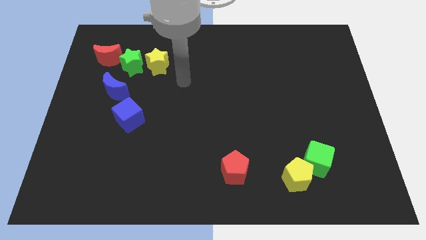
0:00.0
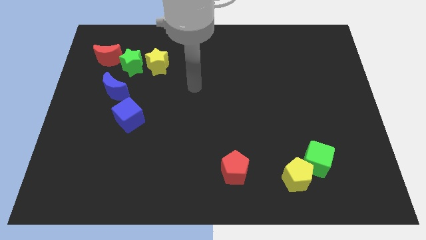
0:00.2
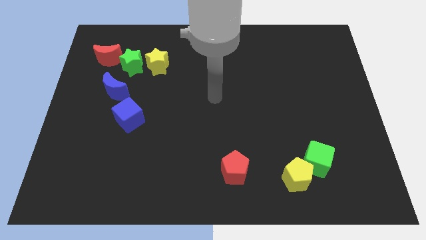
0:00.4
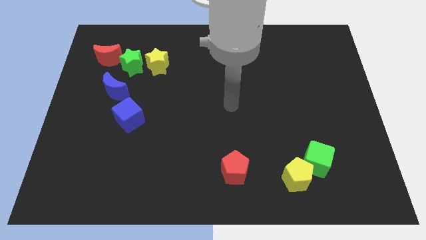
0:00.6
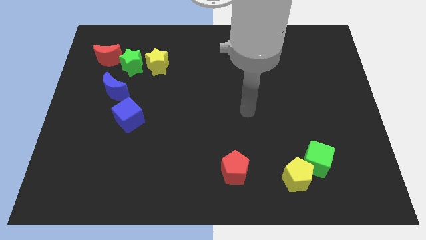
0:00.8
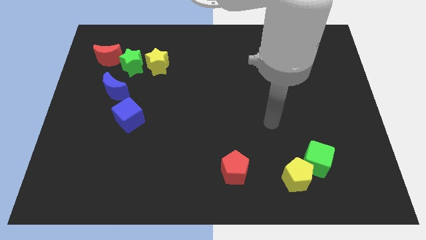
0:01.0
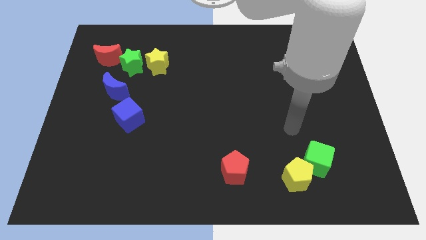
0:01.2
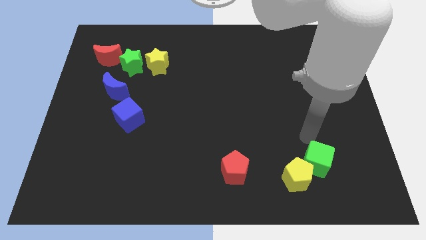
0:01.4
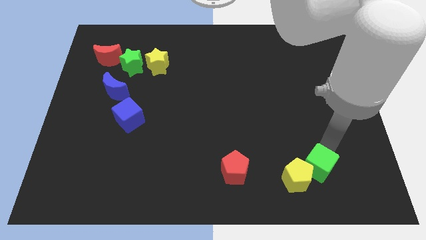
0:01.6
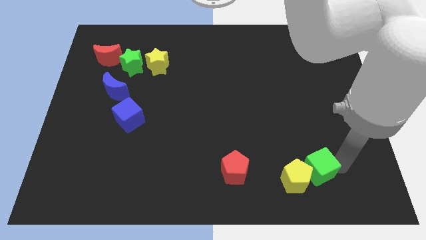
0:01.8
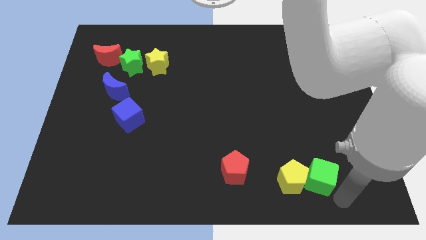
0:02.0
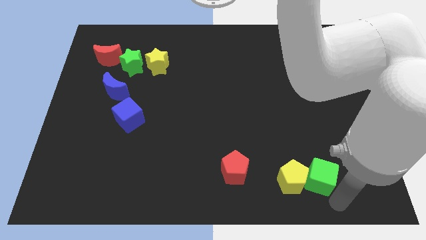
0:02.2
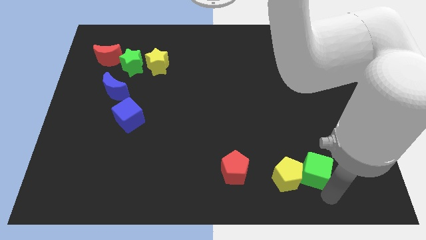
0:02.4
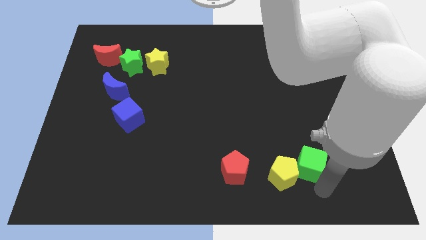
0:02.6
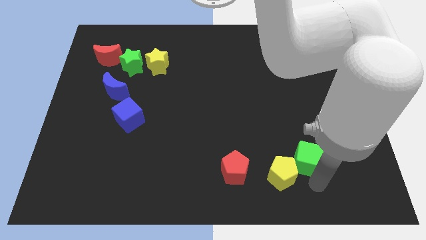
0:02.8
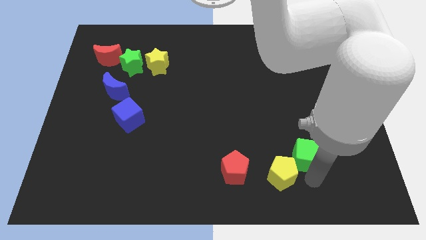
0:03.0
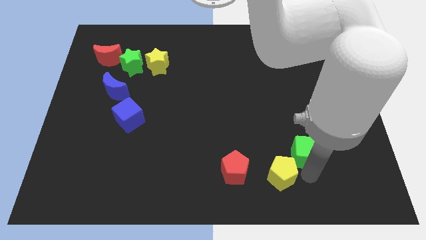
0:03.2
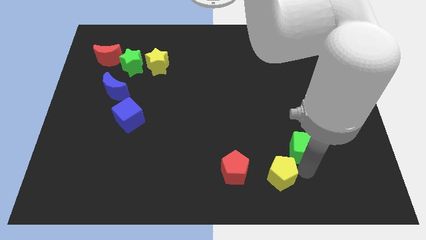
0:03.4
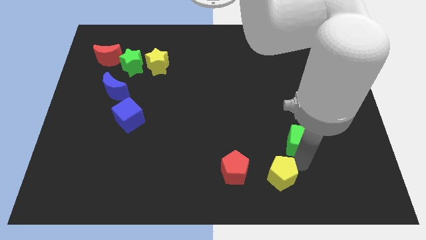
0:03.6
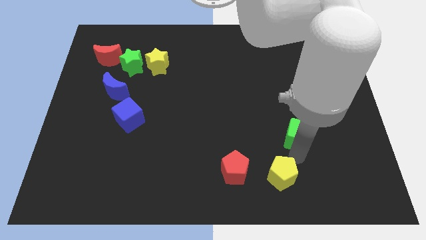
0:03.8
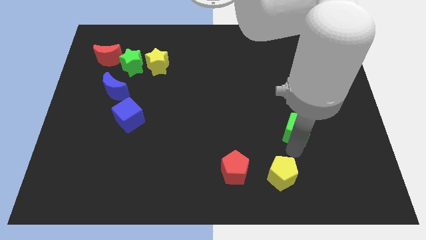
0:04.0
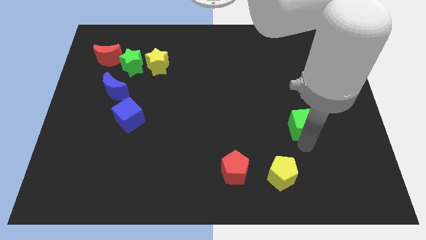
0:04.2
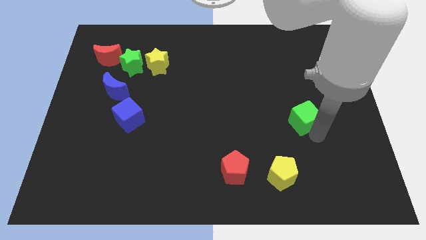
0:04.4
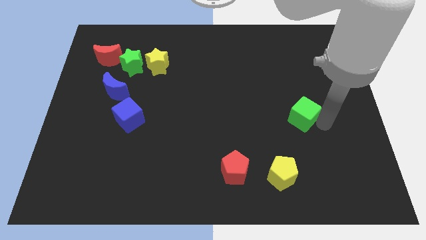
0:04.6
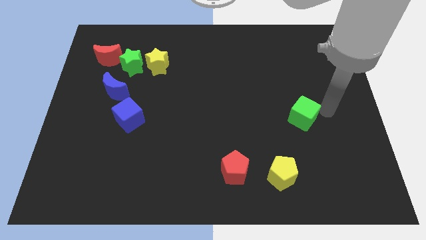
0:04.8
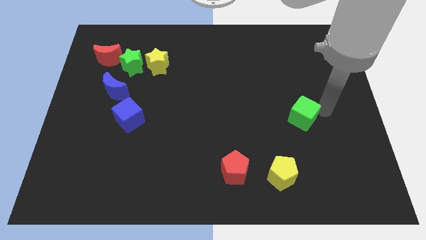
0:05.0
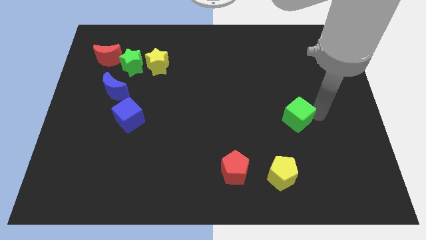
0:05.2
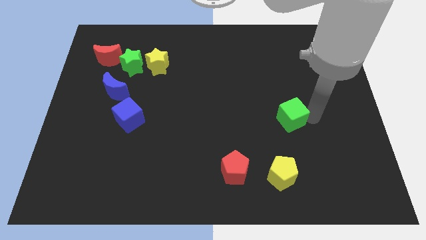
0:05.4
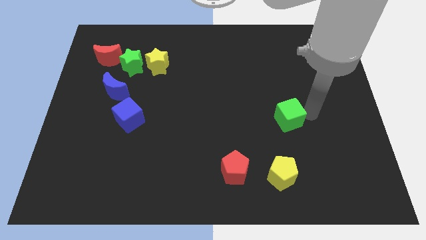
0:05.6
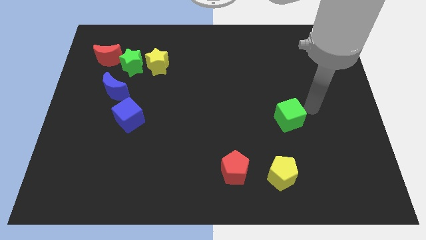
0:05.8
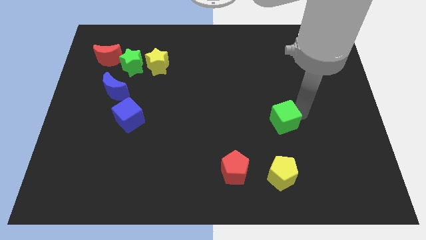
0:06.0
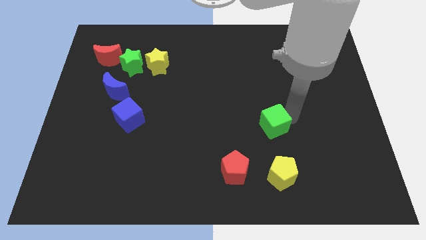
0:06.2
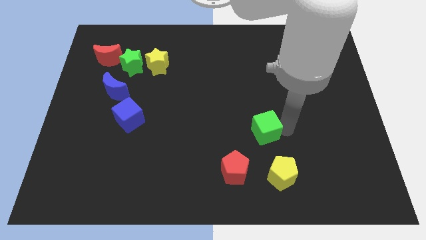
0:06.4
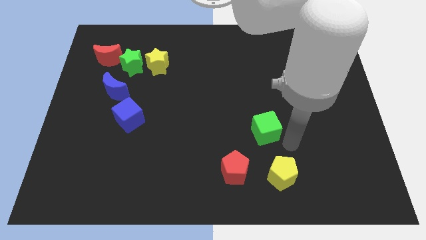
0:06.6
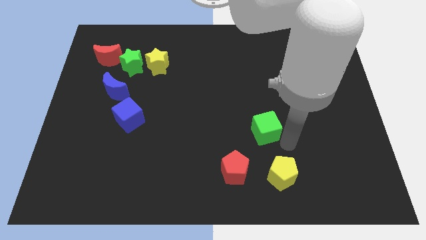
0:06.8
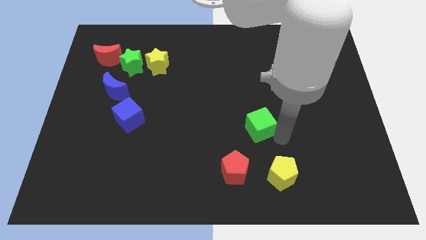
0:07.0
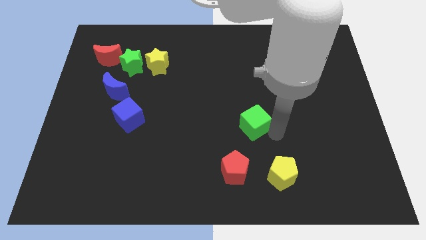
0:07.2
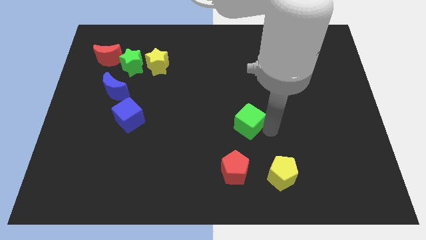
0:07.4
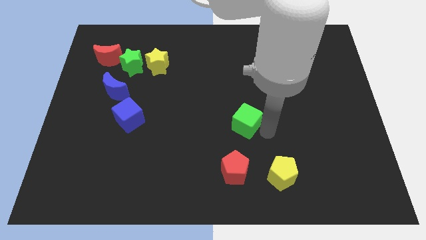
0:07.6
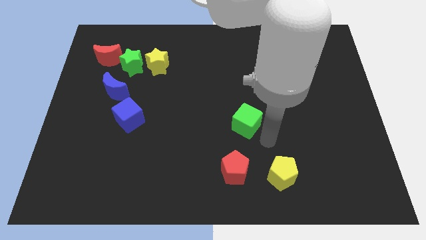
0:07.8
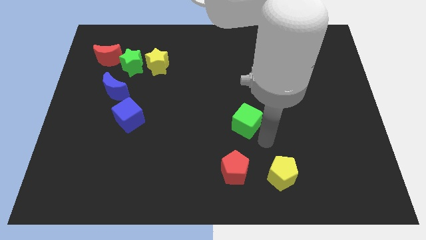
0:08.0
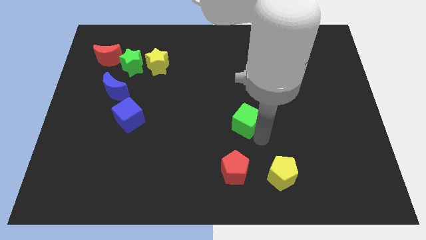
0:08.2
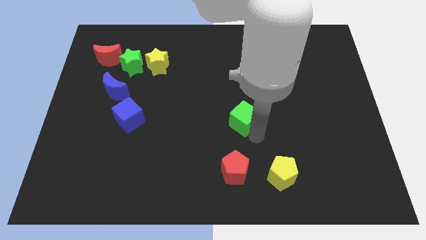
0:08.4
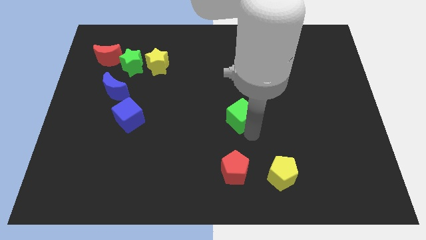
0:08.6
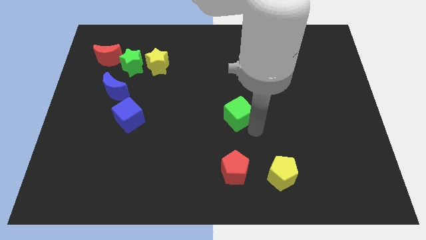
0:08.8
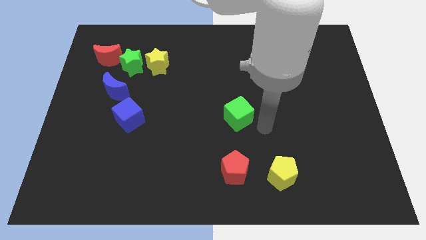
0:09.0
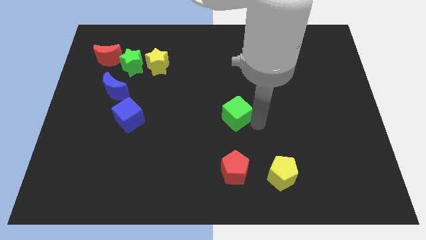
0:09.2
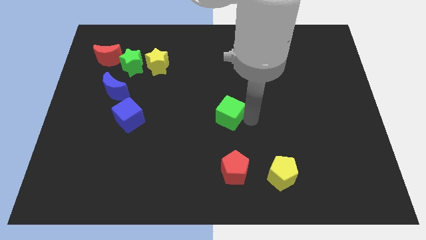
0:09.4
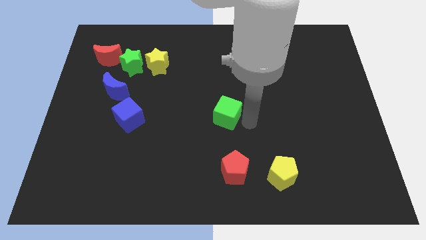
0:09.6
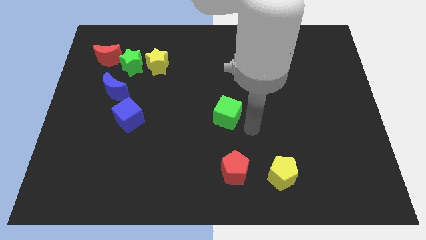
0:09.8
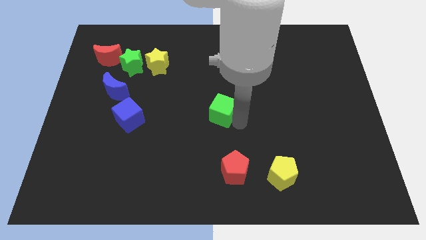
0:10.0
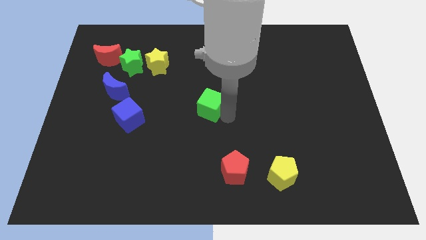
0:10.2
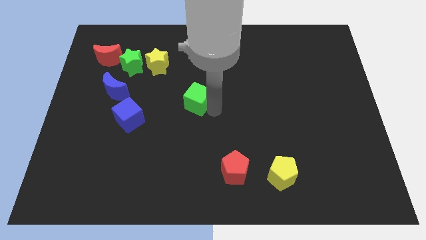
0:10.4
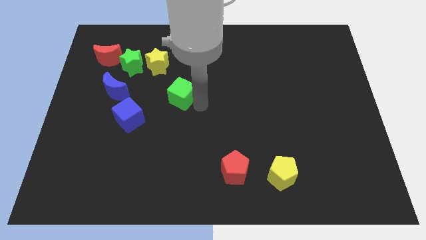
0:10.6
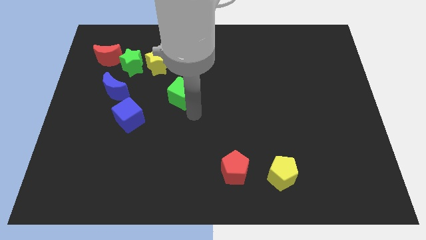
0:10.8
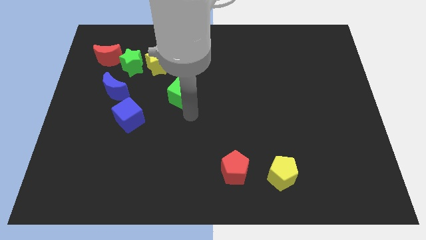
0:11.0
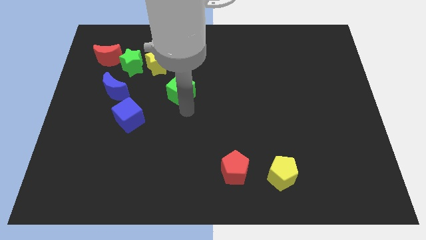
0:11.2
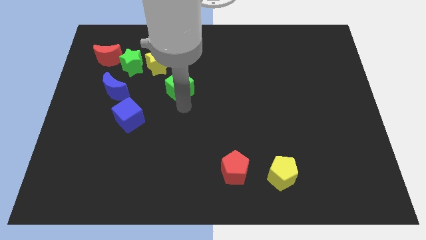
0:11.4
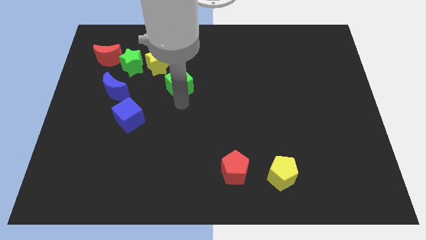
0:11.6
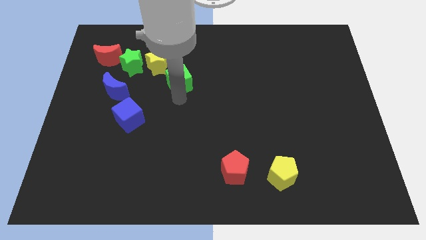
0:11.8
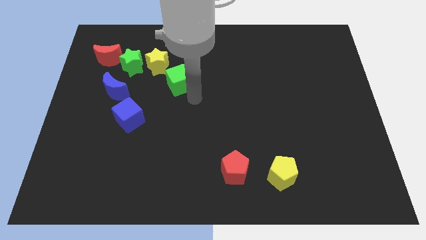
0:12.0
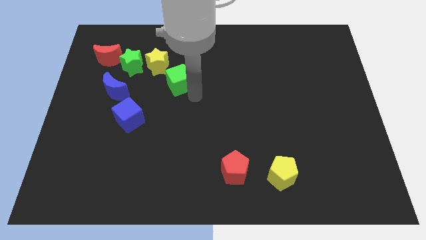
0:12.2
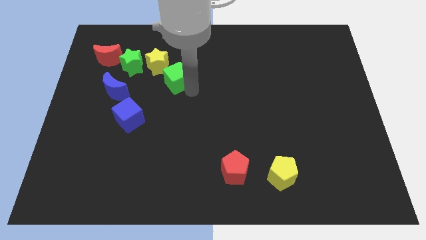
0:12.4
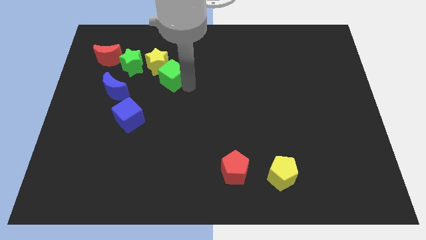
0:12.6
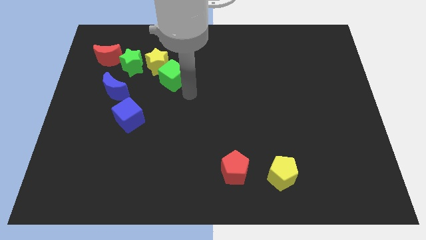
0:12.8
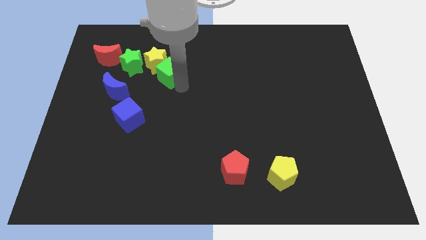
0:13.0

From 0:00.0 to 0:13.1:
push the green cube close to the yellow star

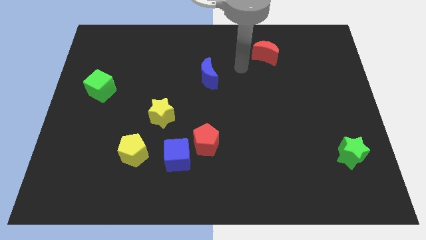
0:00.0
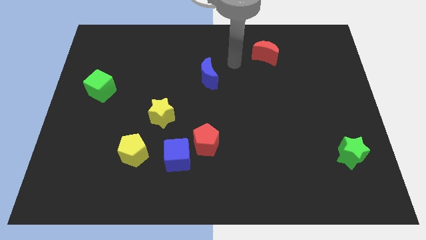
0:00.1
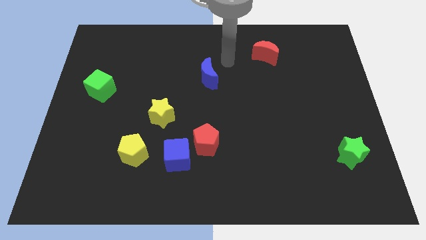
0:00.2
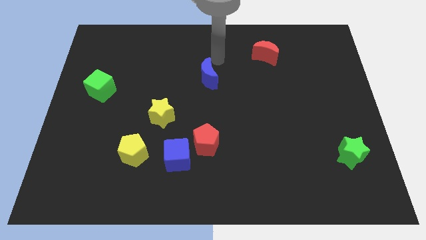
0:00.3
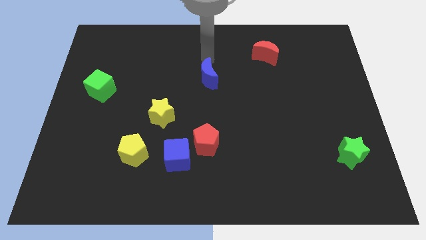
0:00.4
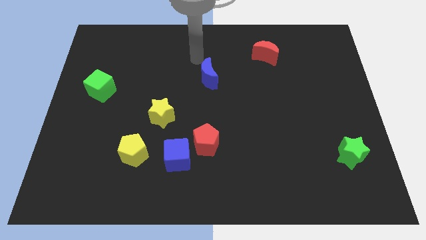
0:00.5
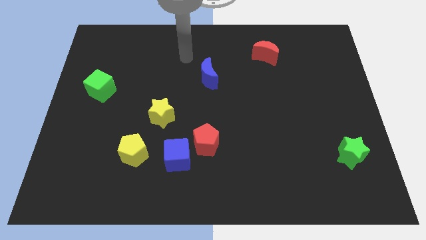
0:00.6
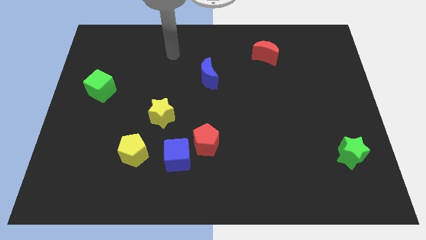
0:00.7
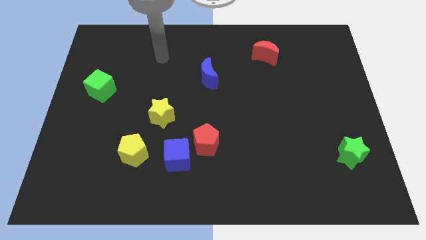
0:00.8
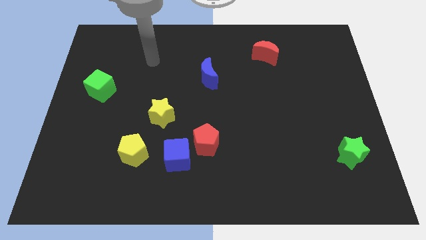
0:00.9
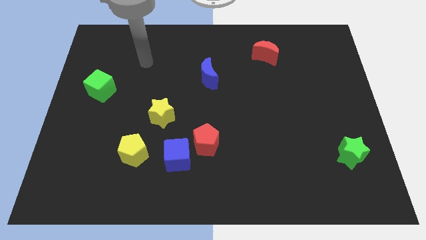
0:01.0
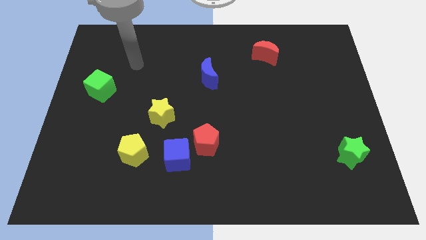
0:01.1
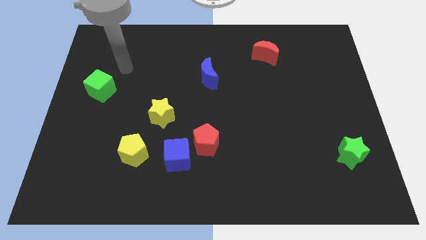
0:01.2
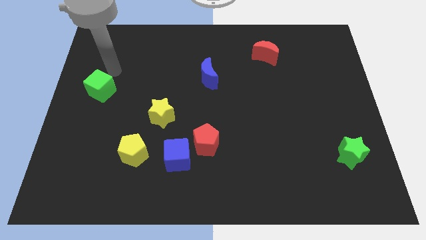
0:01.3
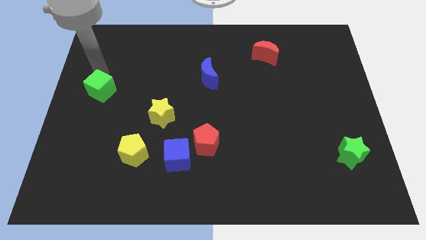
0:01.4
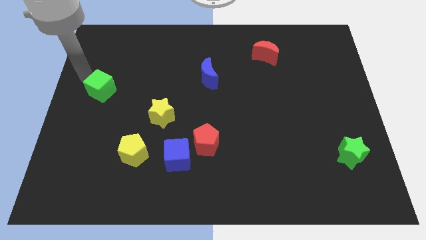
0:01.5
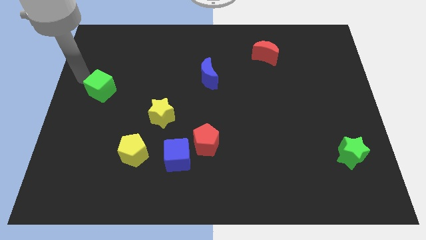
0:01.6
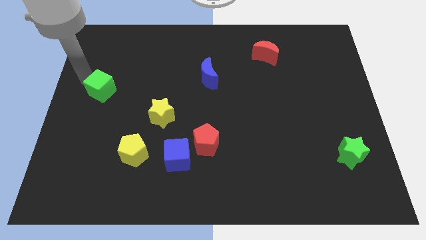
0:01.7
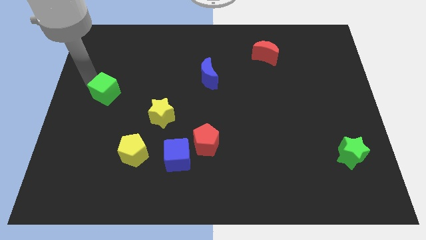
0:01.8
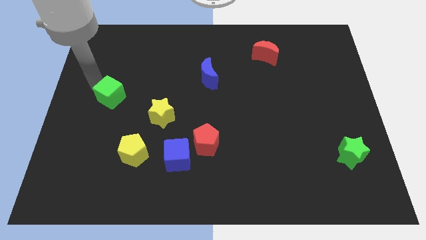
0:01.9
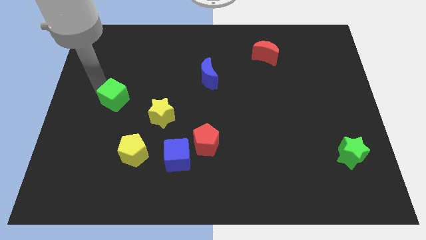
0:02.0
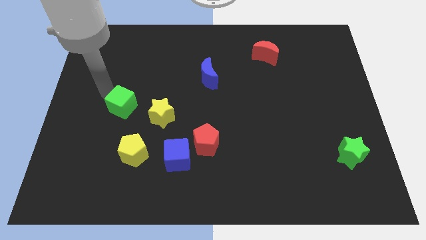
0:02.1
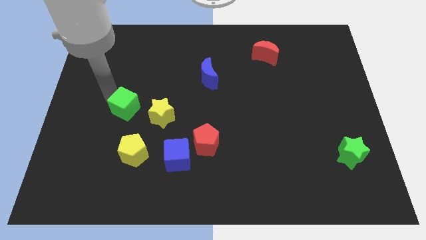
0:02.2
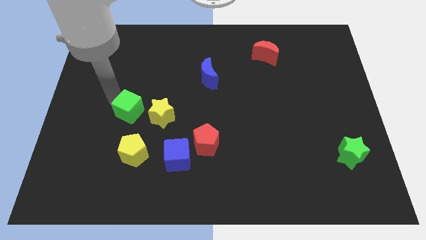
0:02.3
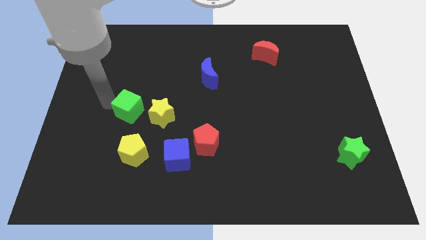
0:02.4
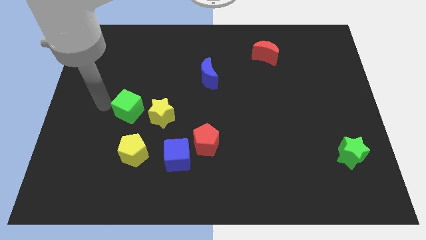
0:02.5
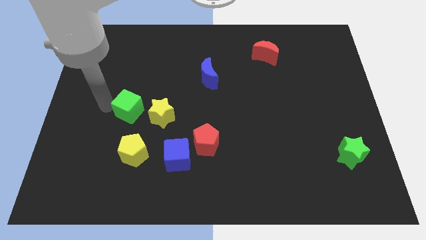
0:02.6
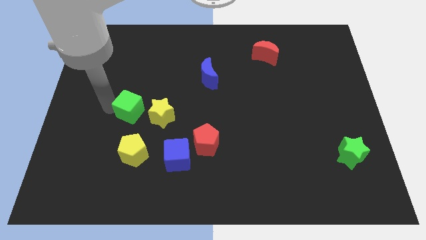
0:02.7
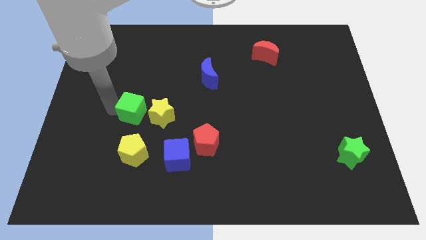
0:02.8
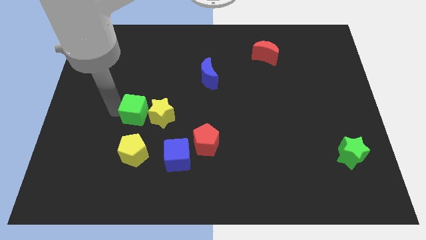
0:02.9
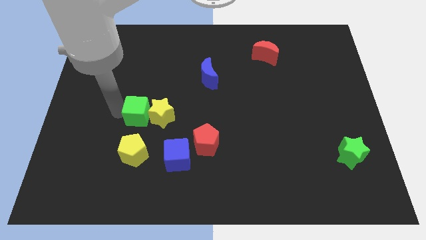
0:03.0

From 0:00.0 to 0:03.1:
move the green cube next to the yellow star
